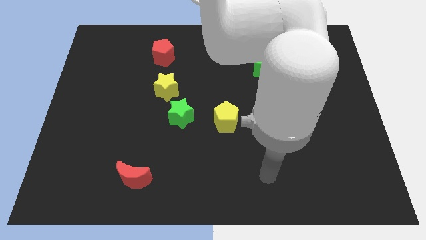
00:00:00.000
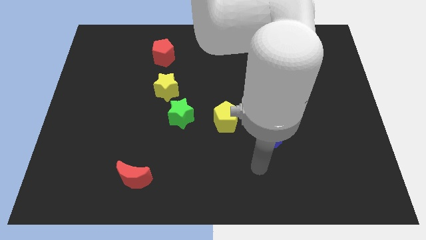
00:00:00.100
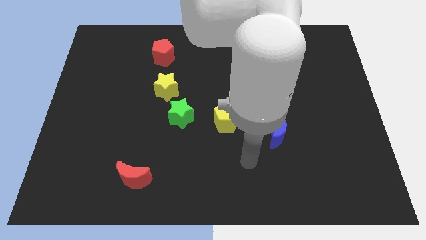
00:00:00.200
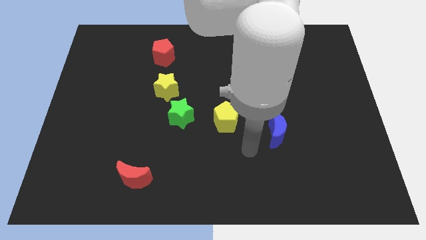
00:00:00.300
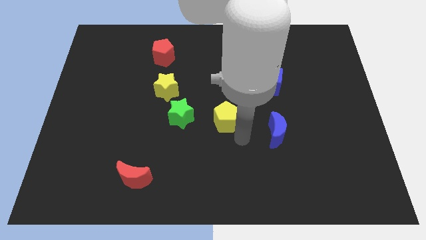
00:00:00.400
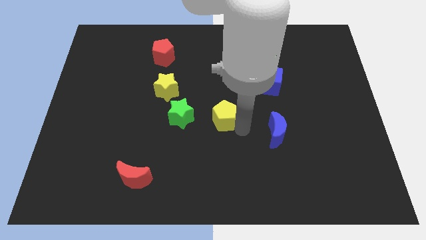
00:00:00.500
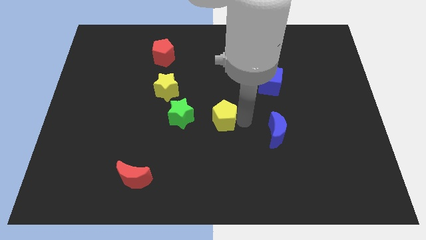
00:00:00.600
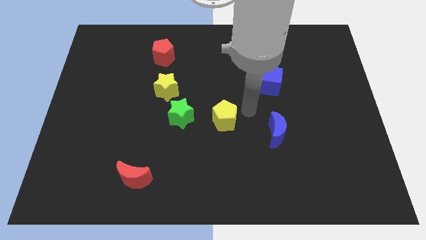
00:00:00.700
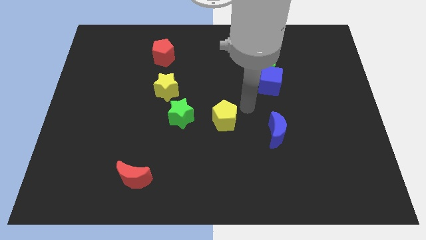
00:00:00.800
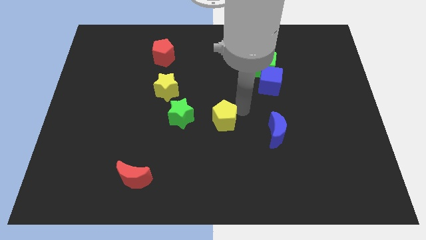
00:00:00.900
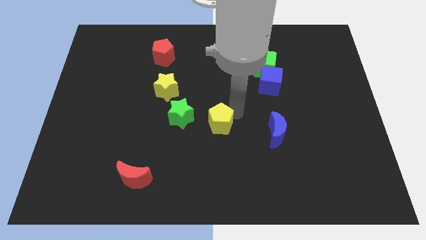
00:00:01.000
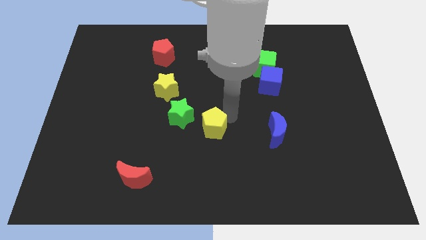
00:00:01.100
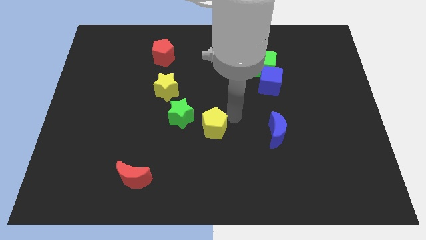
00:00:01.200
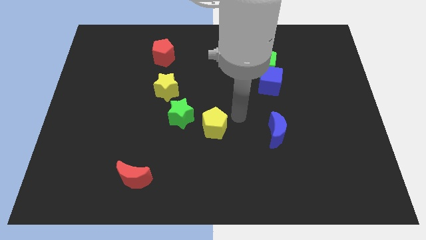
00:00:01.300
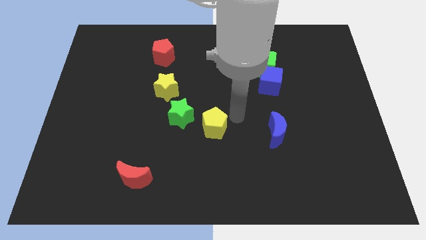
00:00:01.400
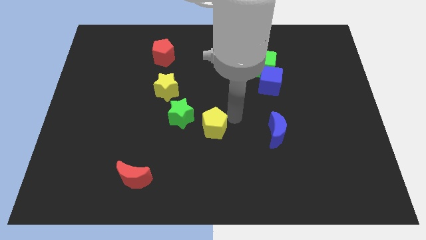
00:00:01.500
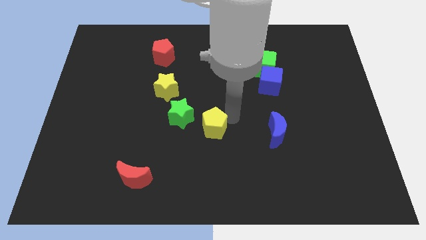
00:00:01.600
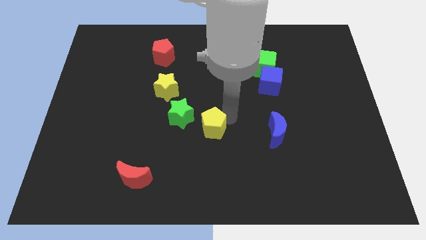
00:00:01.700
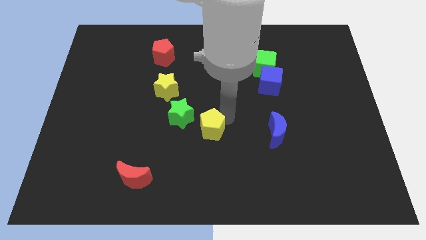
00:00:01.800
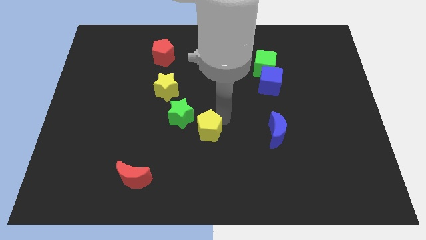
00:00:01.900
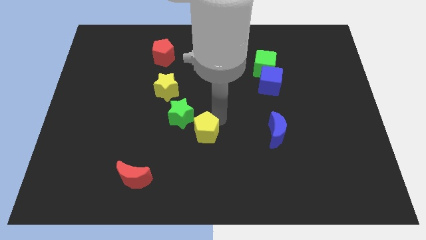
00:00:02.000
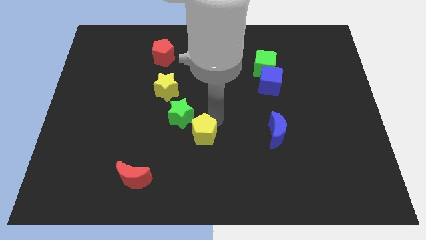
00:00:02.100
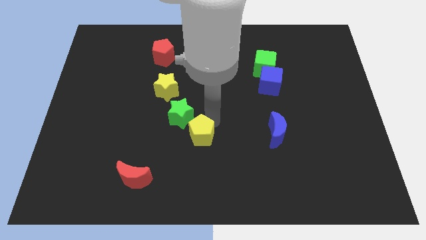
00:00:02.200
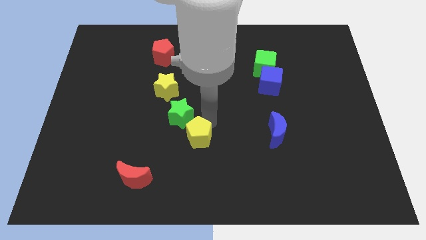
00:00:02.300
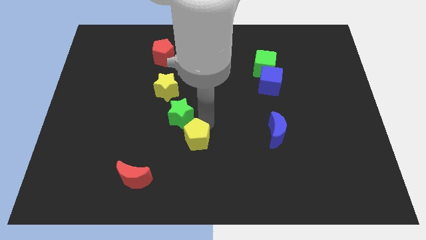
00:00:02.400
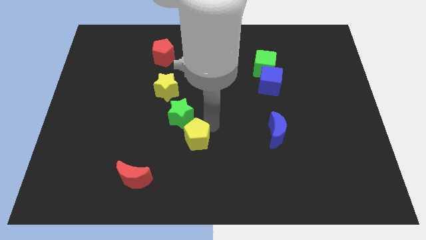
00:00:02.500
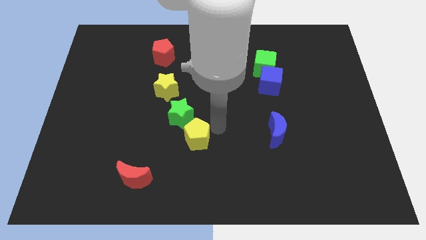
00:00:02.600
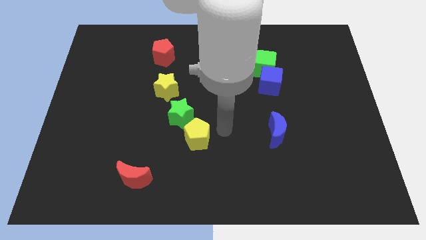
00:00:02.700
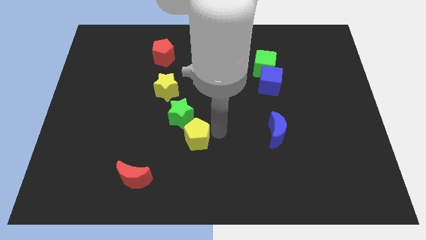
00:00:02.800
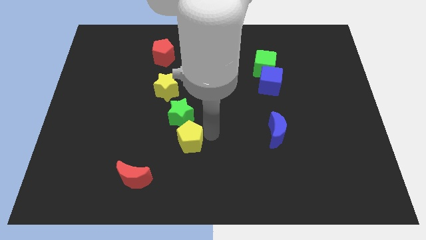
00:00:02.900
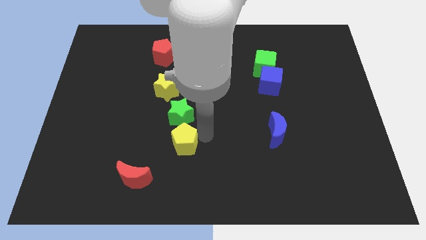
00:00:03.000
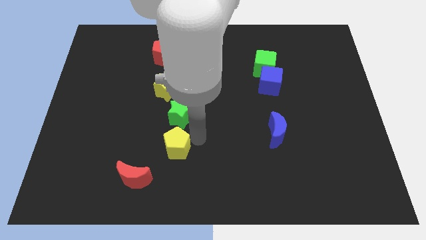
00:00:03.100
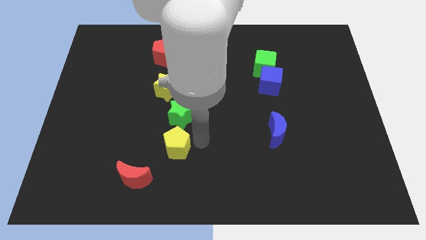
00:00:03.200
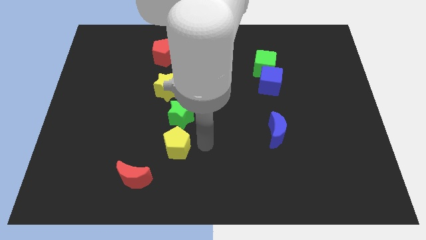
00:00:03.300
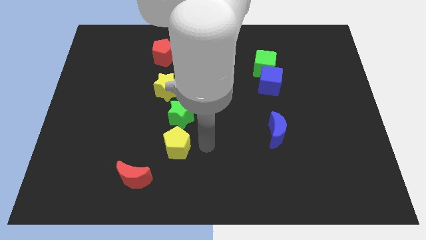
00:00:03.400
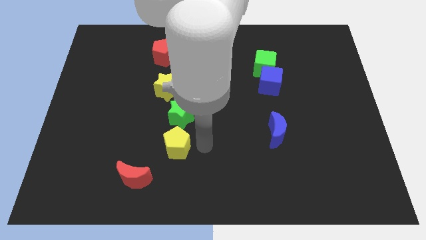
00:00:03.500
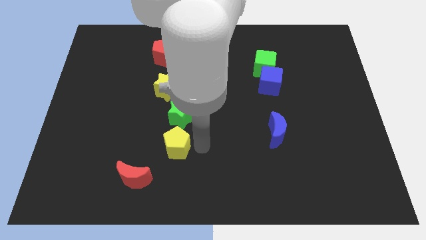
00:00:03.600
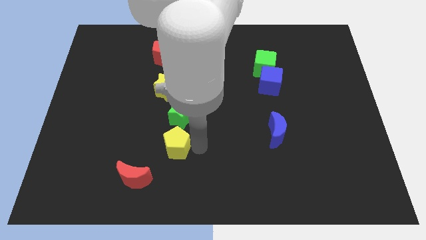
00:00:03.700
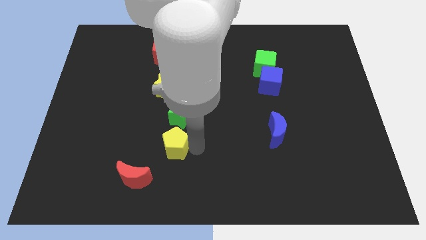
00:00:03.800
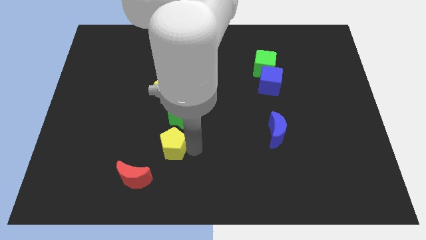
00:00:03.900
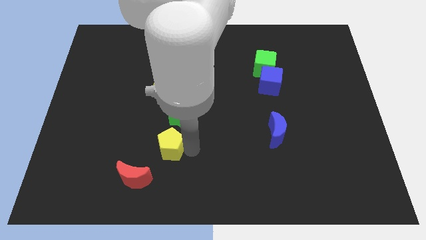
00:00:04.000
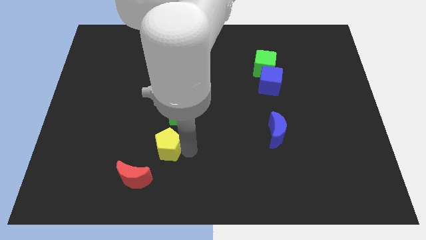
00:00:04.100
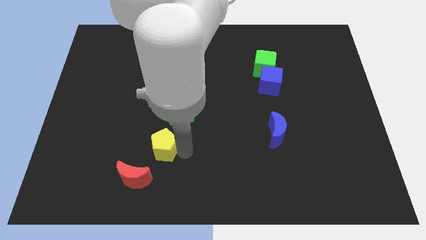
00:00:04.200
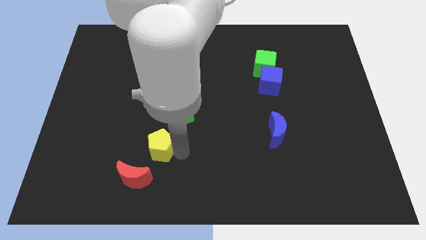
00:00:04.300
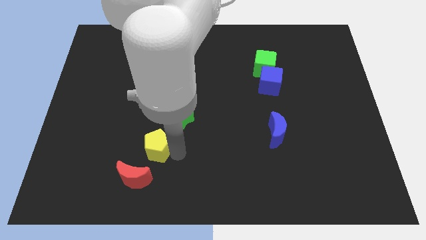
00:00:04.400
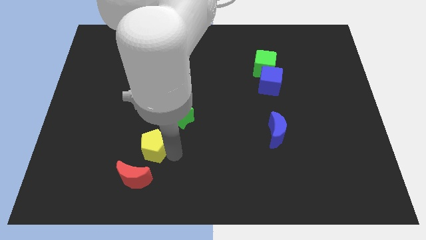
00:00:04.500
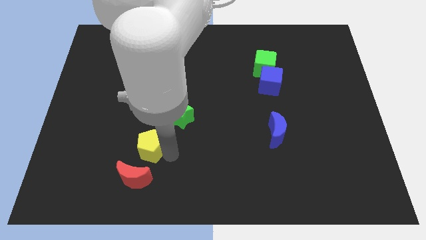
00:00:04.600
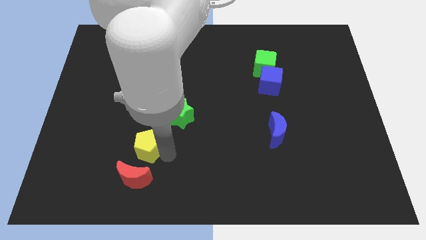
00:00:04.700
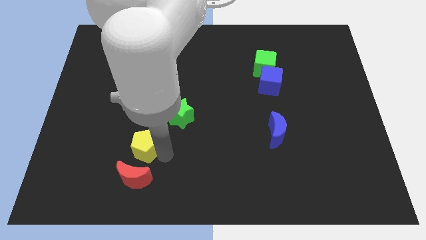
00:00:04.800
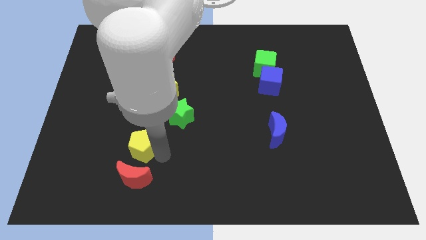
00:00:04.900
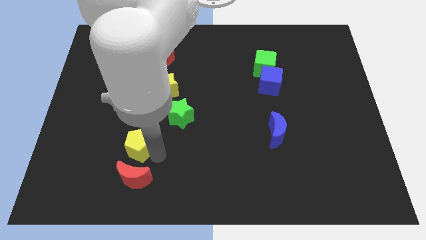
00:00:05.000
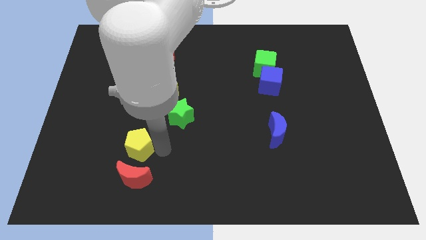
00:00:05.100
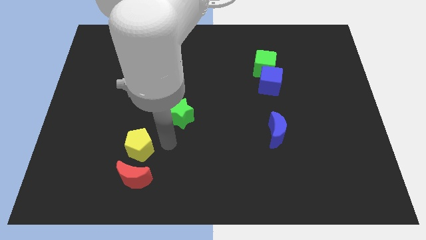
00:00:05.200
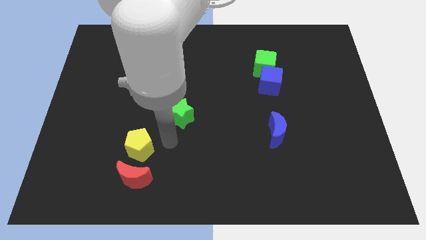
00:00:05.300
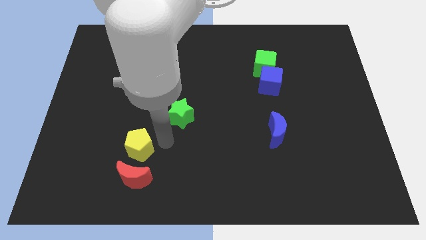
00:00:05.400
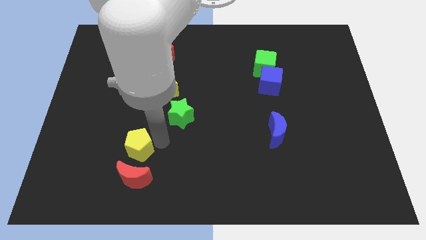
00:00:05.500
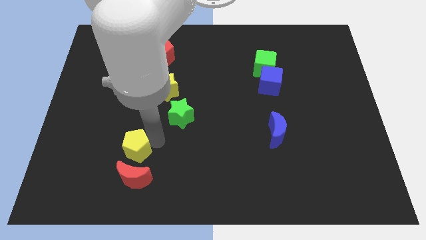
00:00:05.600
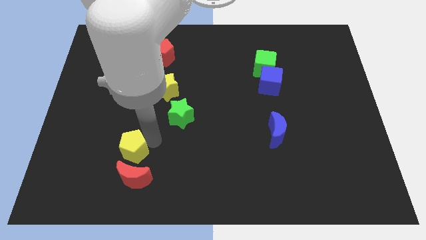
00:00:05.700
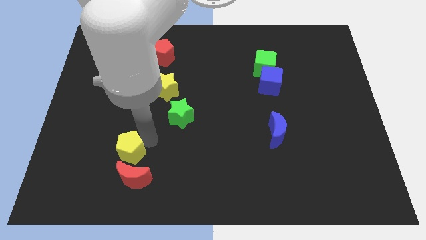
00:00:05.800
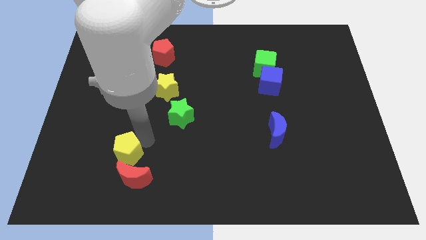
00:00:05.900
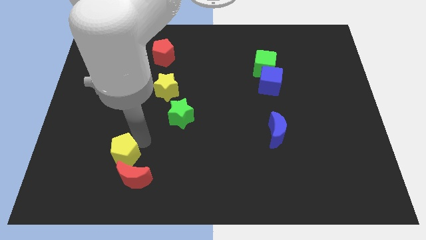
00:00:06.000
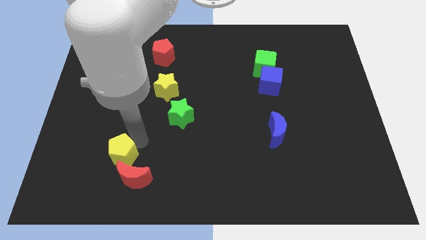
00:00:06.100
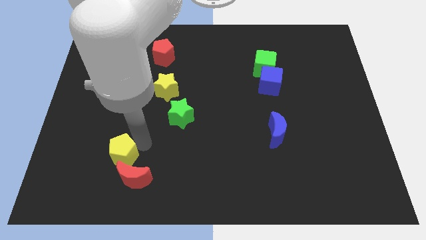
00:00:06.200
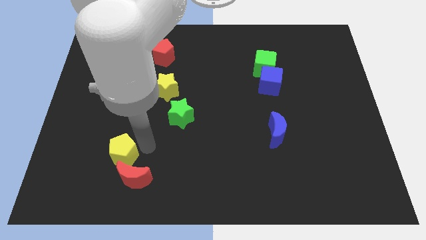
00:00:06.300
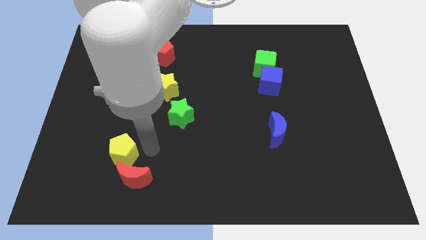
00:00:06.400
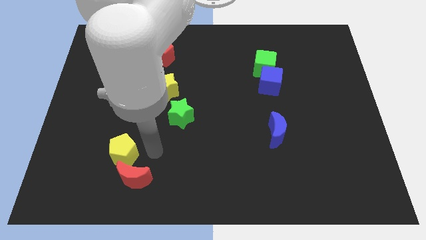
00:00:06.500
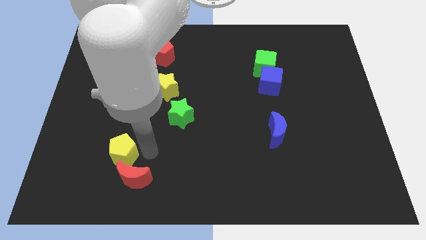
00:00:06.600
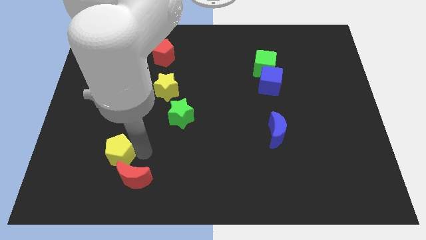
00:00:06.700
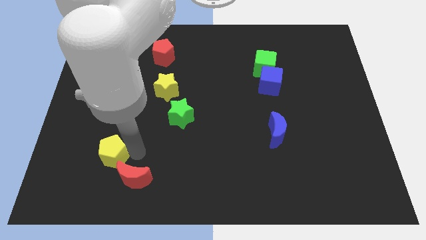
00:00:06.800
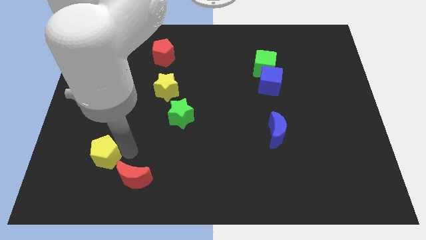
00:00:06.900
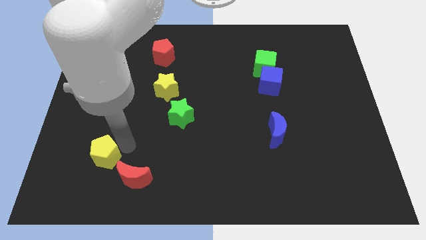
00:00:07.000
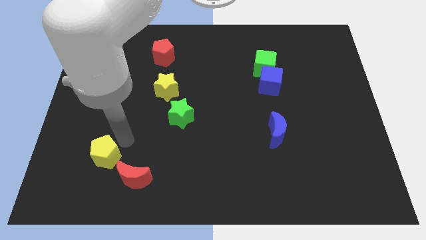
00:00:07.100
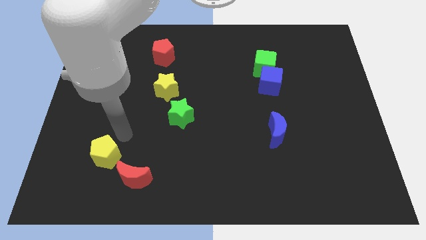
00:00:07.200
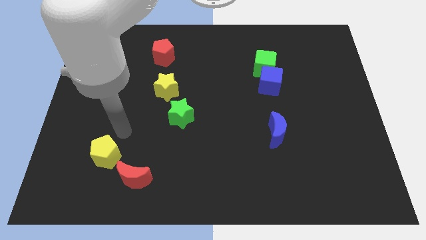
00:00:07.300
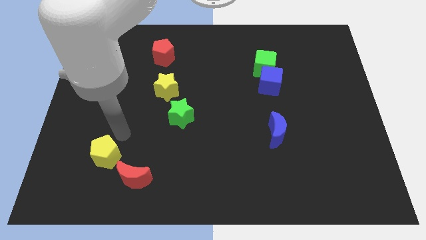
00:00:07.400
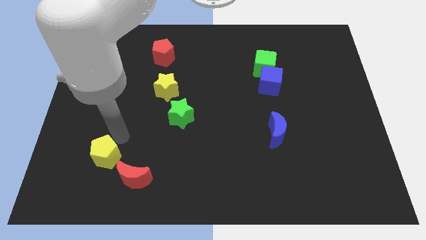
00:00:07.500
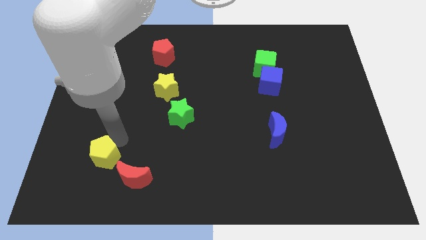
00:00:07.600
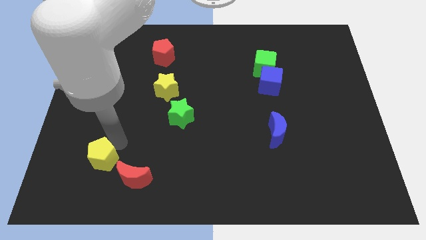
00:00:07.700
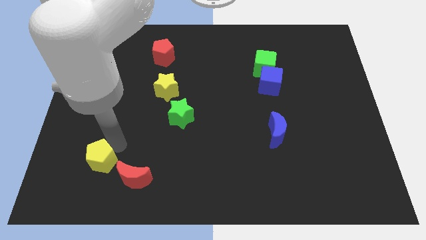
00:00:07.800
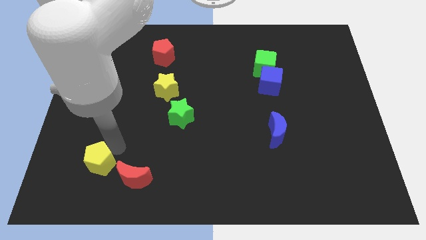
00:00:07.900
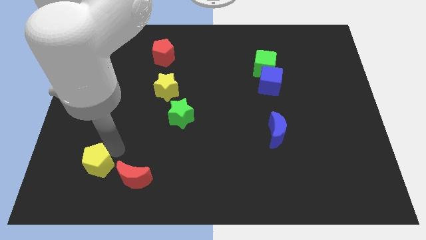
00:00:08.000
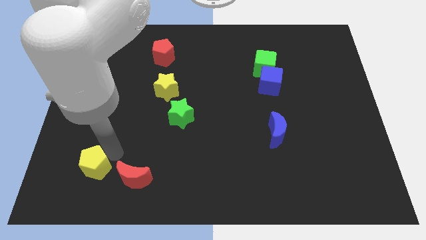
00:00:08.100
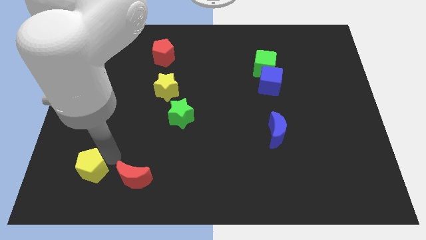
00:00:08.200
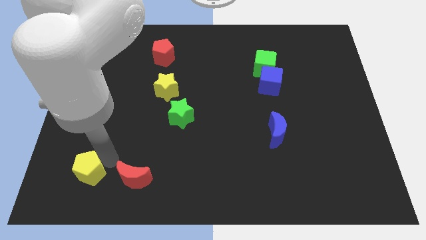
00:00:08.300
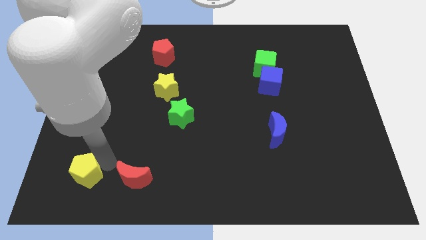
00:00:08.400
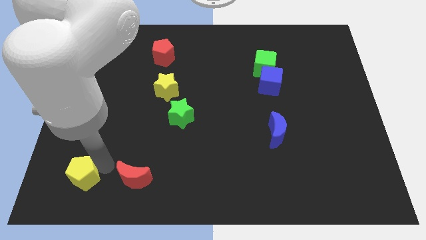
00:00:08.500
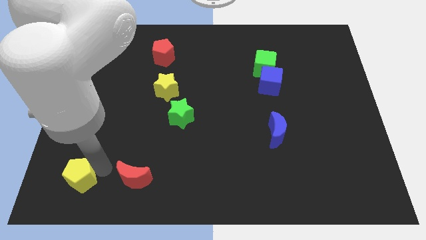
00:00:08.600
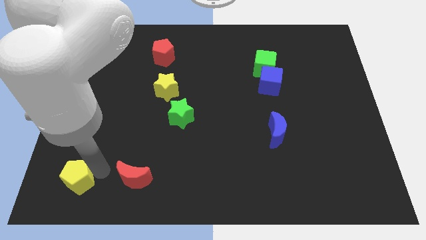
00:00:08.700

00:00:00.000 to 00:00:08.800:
put the yellow pentagon to the lower left corner
